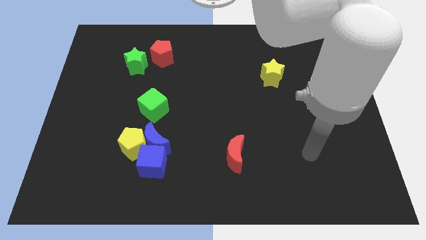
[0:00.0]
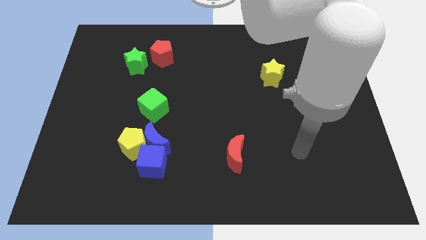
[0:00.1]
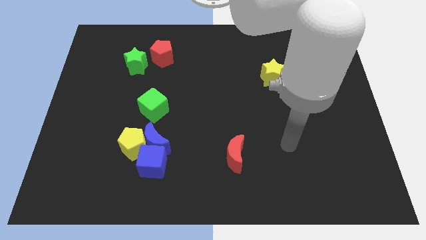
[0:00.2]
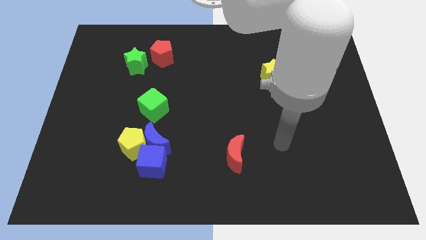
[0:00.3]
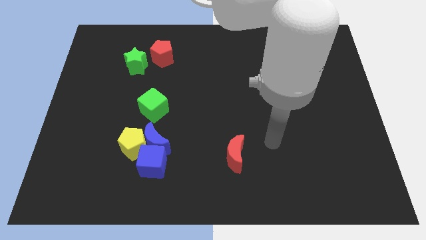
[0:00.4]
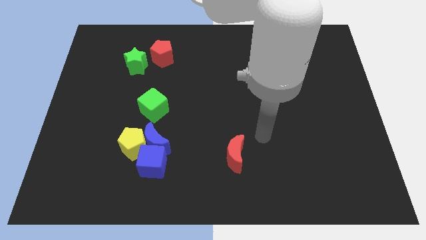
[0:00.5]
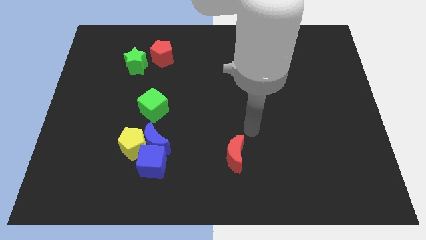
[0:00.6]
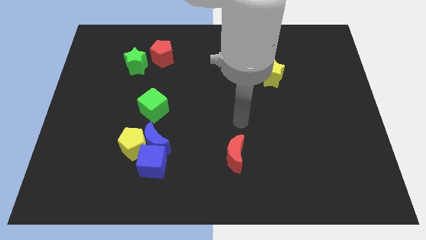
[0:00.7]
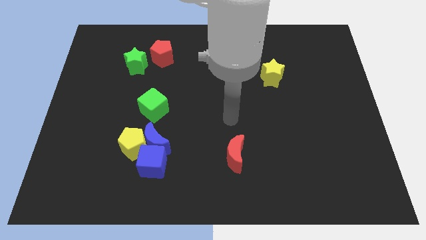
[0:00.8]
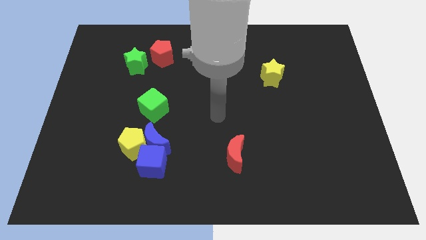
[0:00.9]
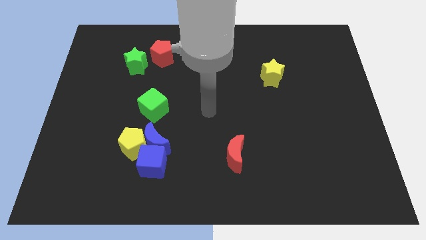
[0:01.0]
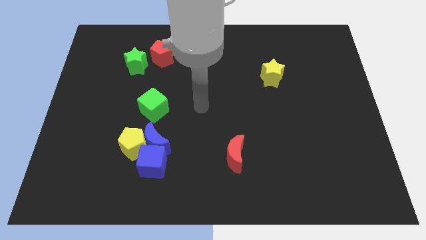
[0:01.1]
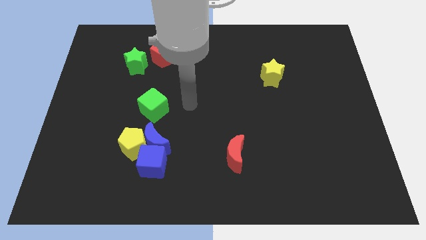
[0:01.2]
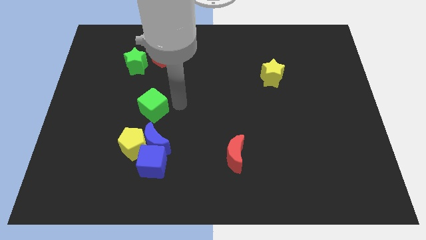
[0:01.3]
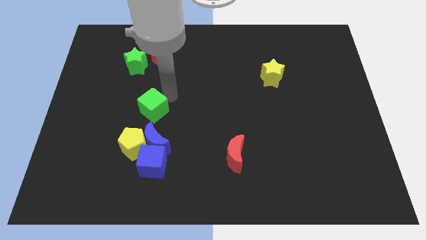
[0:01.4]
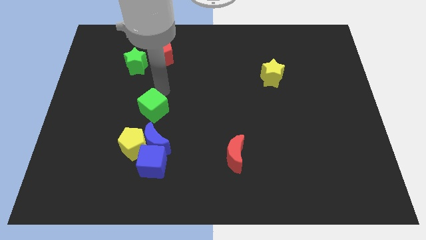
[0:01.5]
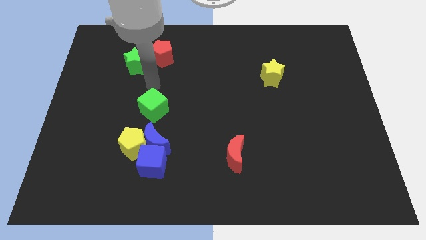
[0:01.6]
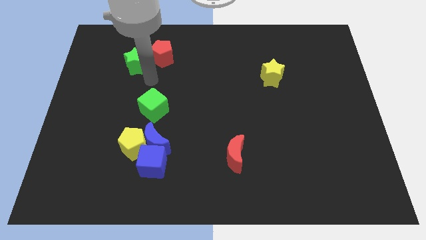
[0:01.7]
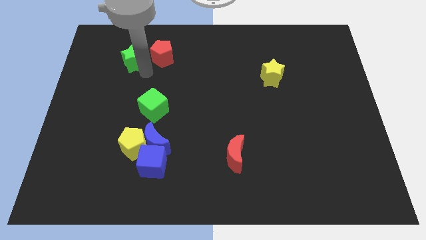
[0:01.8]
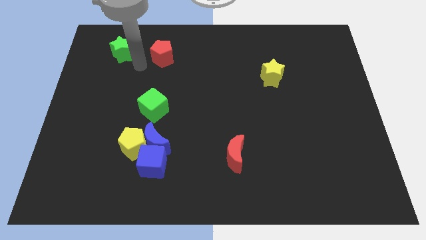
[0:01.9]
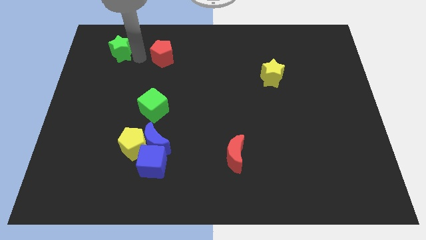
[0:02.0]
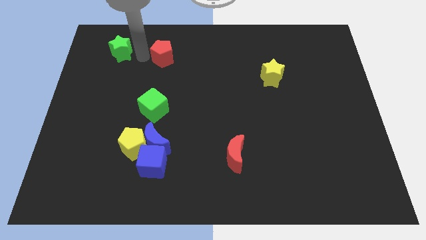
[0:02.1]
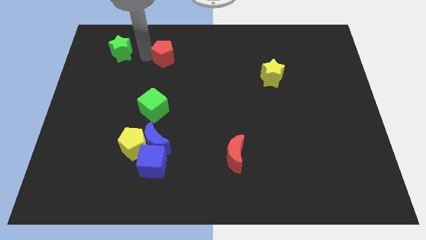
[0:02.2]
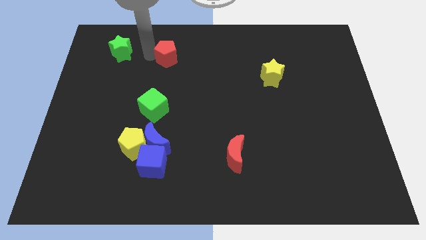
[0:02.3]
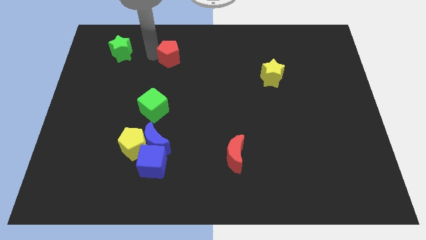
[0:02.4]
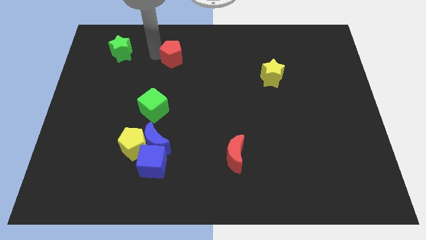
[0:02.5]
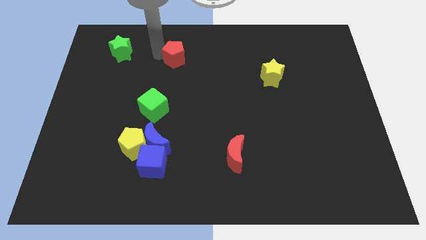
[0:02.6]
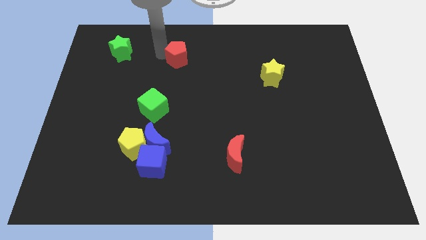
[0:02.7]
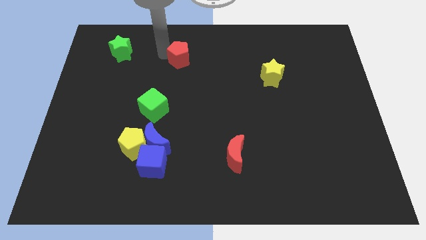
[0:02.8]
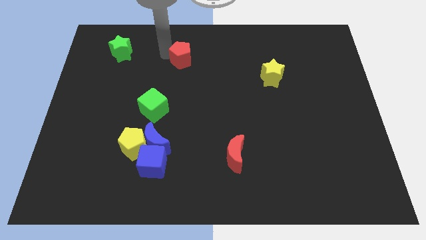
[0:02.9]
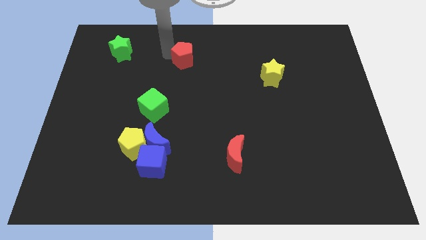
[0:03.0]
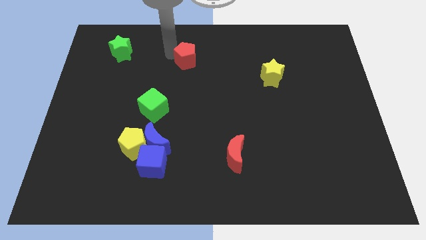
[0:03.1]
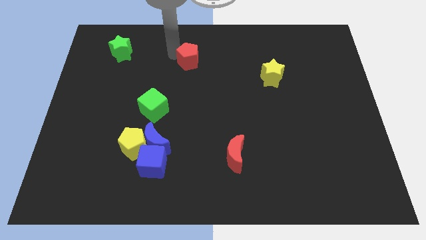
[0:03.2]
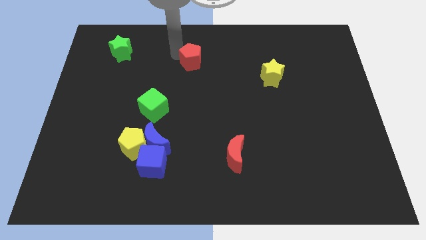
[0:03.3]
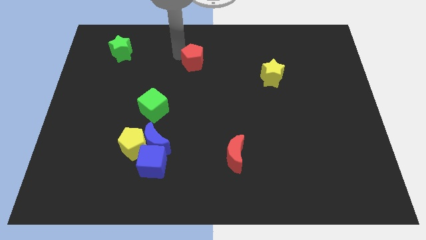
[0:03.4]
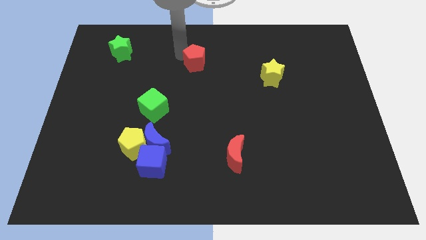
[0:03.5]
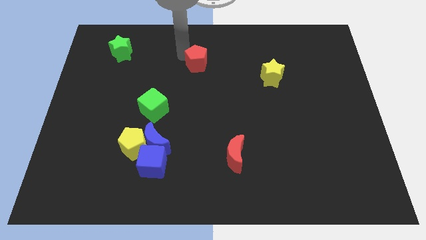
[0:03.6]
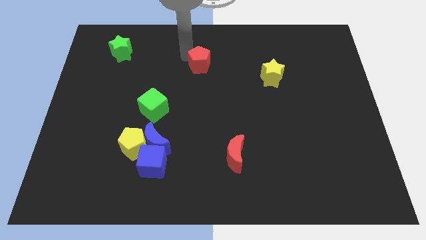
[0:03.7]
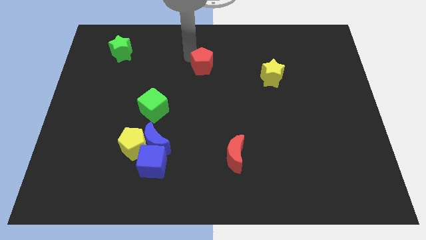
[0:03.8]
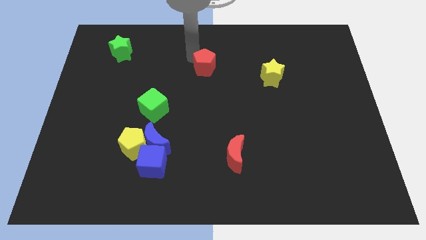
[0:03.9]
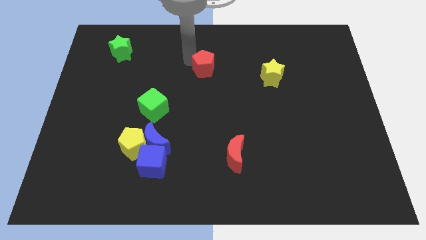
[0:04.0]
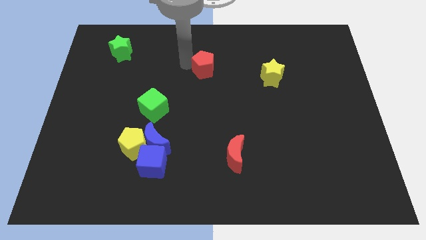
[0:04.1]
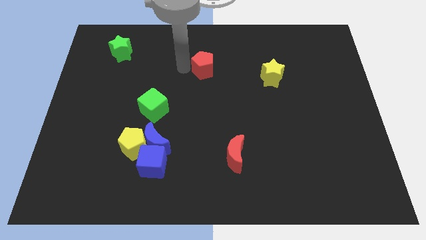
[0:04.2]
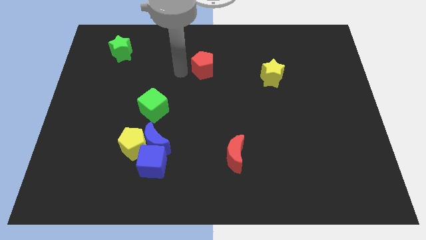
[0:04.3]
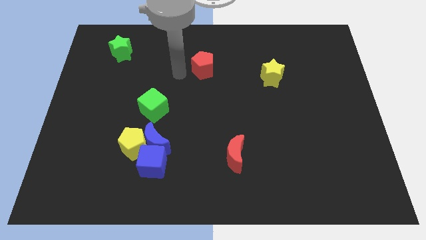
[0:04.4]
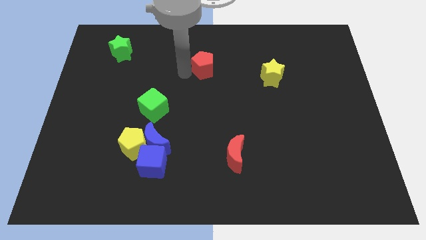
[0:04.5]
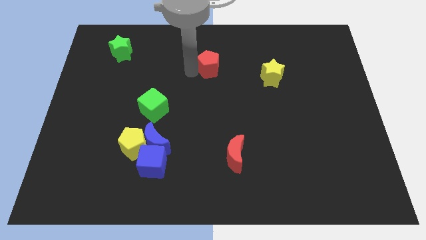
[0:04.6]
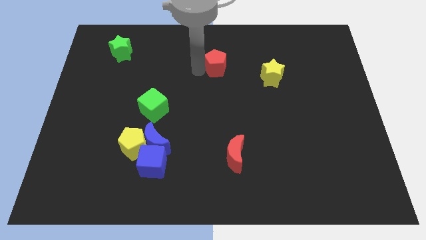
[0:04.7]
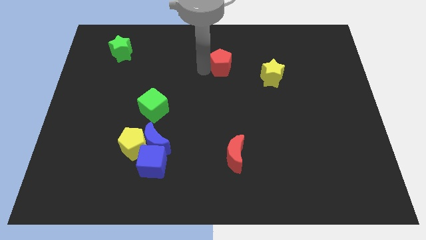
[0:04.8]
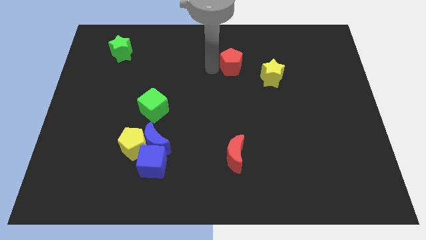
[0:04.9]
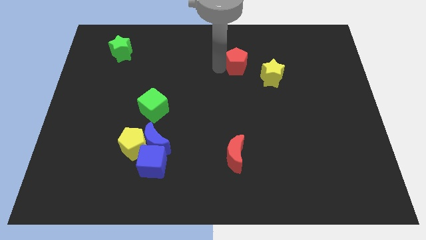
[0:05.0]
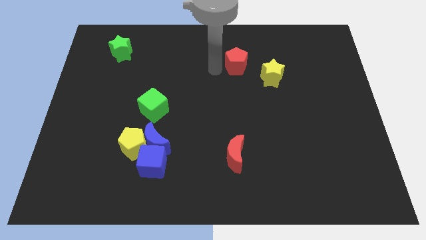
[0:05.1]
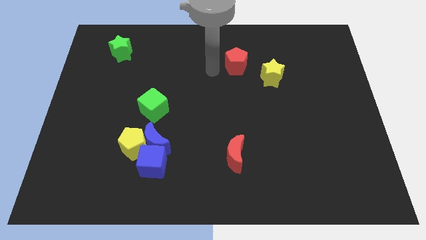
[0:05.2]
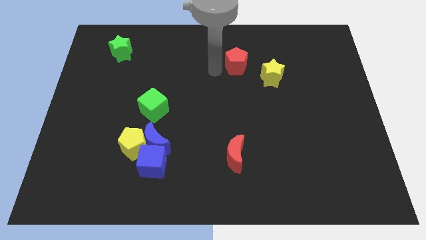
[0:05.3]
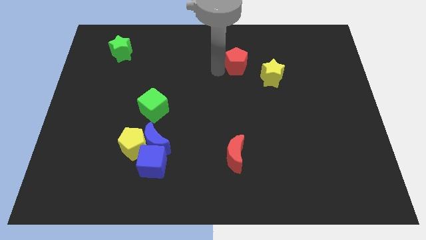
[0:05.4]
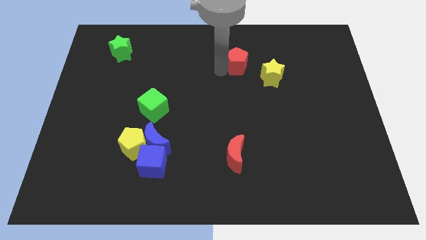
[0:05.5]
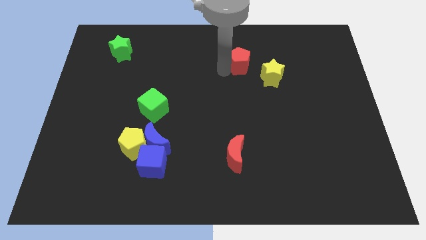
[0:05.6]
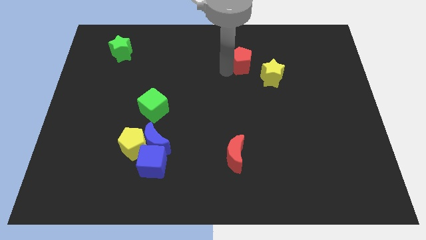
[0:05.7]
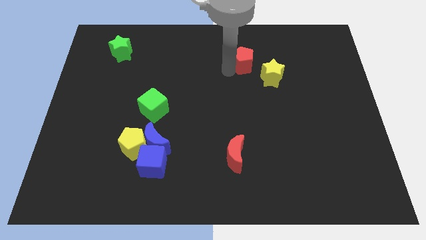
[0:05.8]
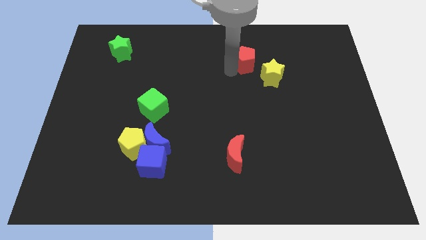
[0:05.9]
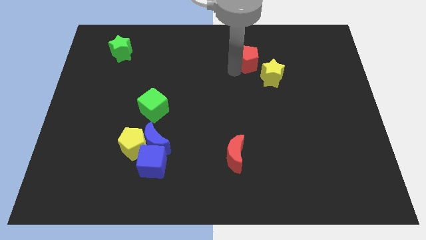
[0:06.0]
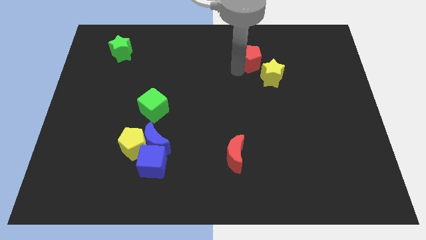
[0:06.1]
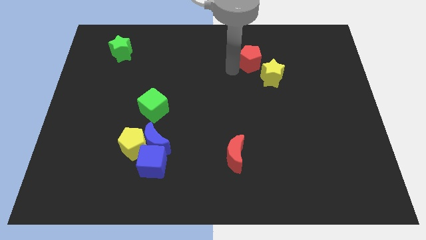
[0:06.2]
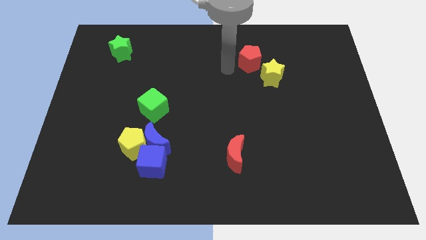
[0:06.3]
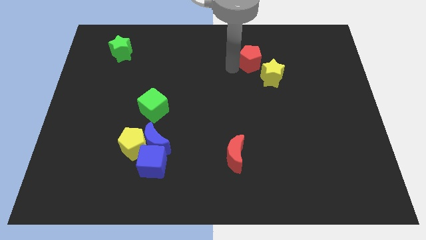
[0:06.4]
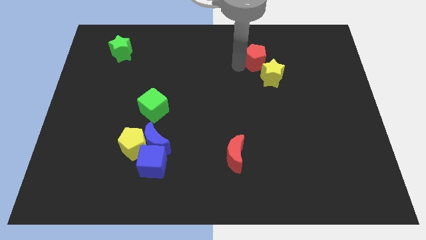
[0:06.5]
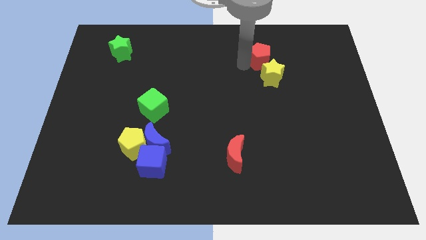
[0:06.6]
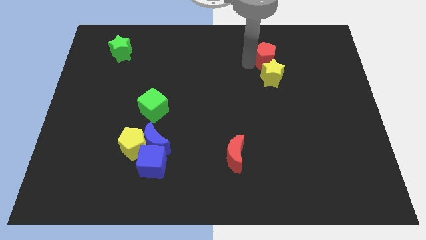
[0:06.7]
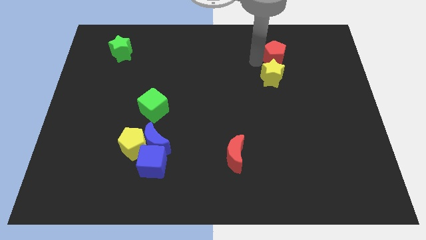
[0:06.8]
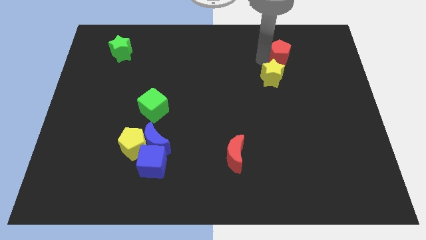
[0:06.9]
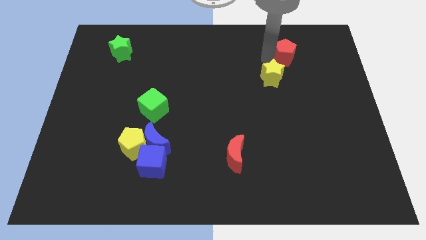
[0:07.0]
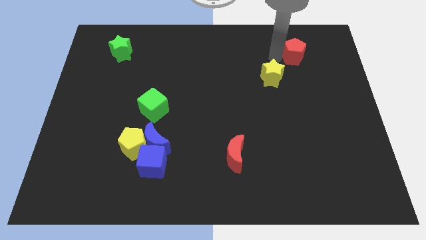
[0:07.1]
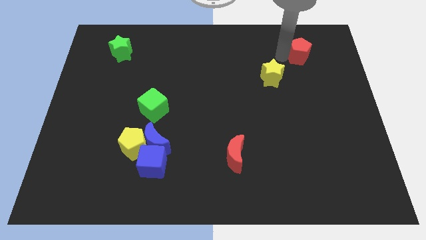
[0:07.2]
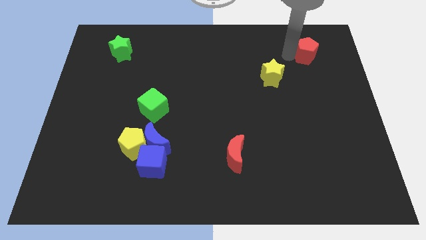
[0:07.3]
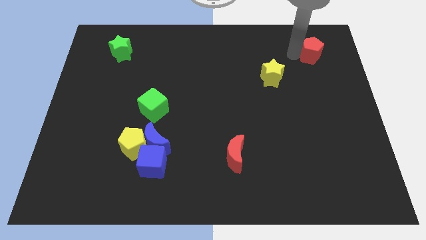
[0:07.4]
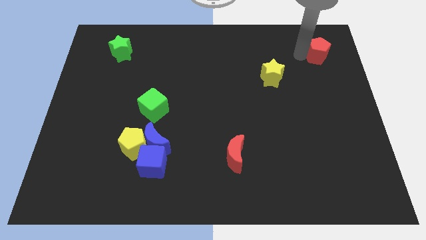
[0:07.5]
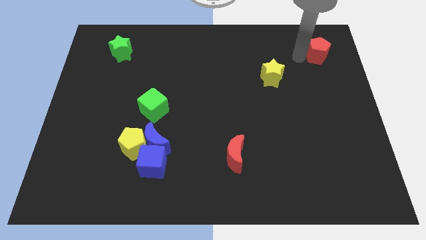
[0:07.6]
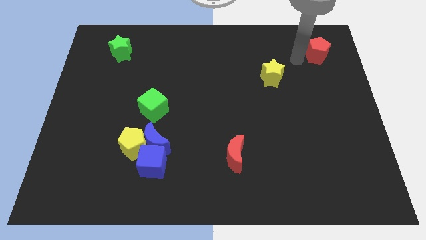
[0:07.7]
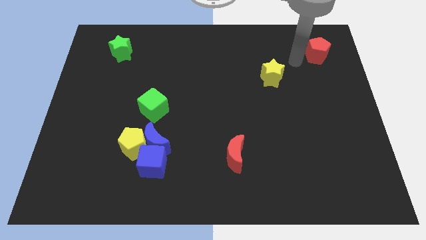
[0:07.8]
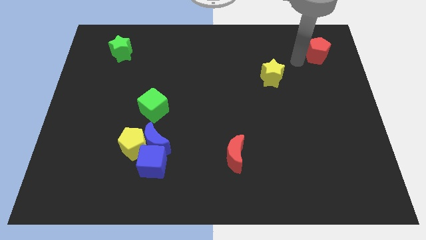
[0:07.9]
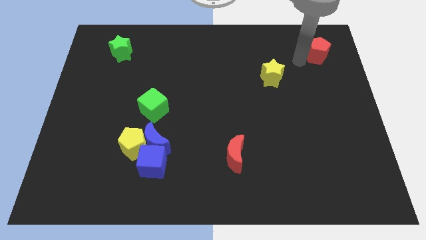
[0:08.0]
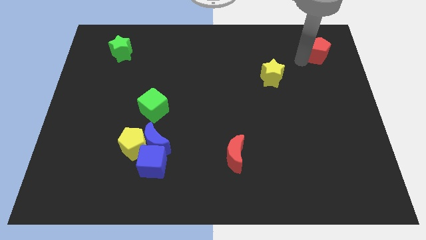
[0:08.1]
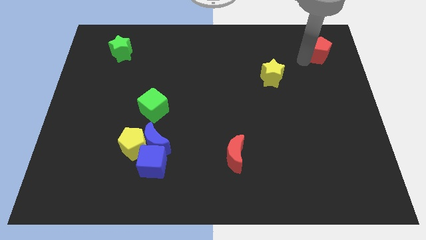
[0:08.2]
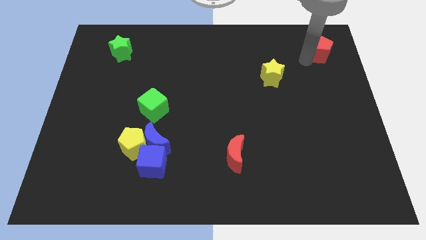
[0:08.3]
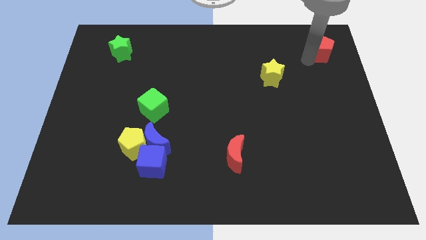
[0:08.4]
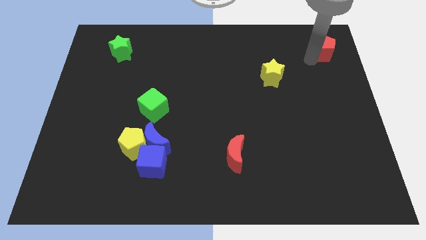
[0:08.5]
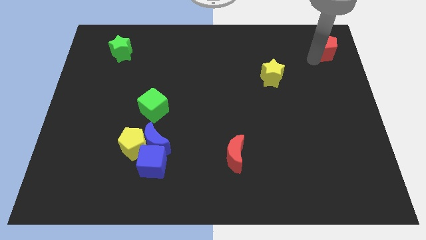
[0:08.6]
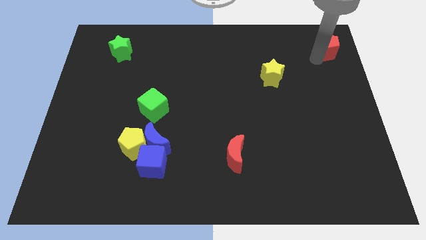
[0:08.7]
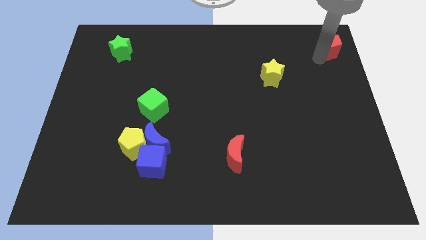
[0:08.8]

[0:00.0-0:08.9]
move the red pentagon to the upper right corner
